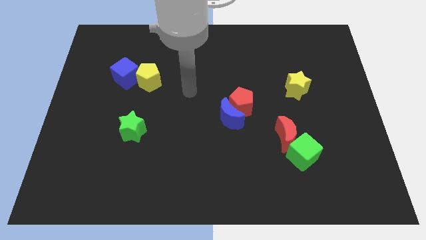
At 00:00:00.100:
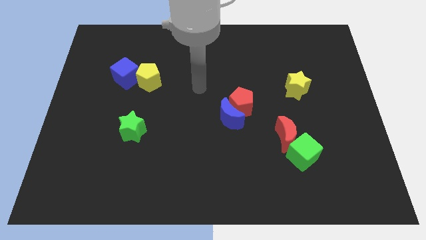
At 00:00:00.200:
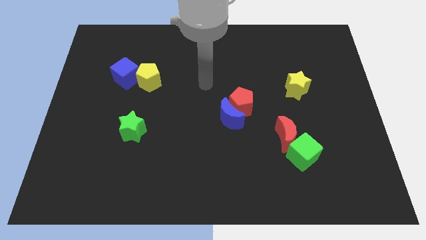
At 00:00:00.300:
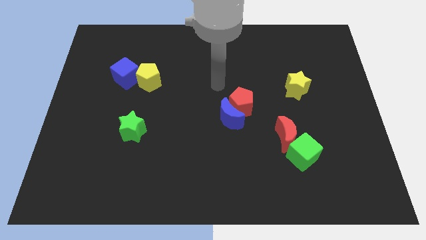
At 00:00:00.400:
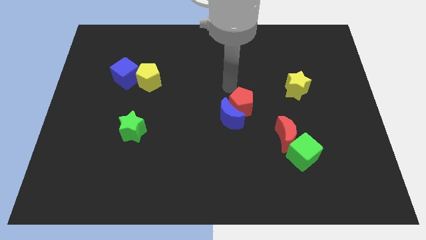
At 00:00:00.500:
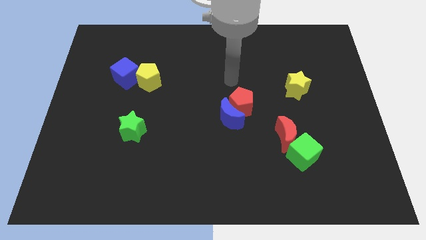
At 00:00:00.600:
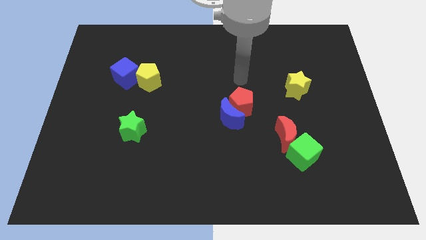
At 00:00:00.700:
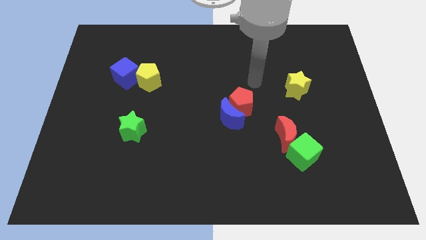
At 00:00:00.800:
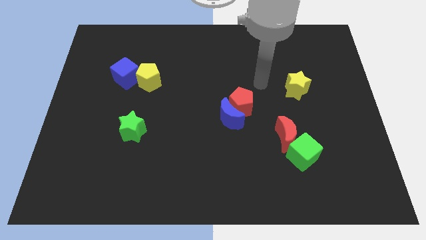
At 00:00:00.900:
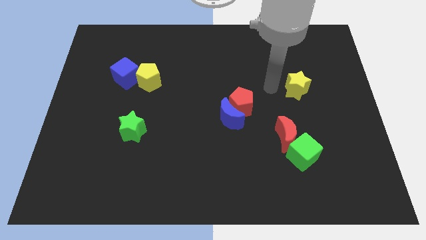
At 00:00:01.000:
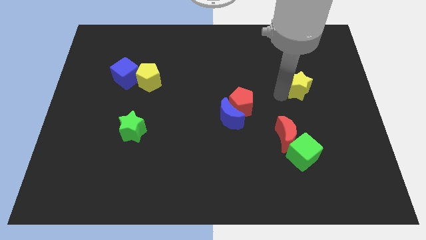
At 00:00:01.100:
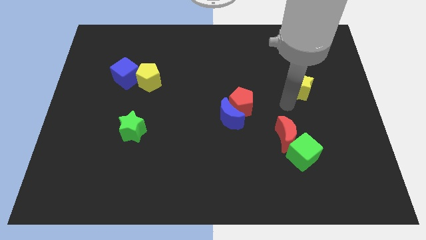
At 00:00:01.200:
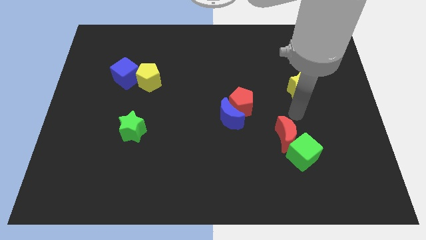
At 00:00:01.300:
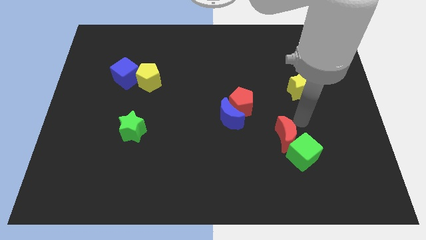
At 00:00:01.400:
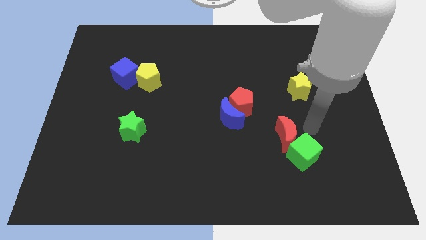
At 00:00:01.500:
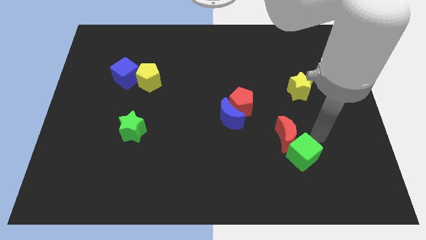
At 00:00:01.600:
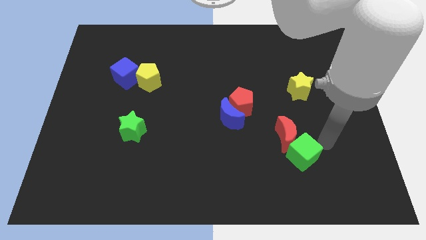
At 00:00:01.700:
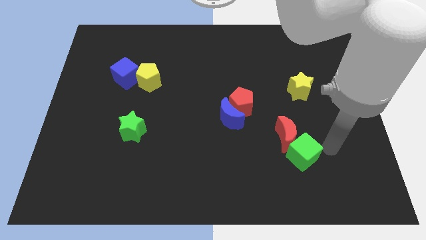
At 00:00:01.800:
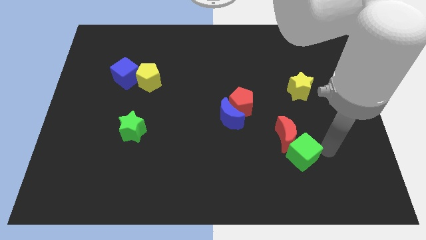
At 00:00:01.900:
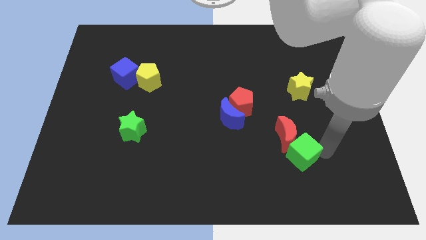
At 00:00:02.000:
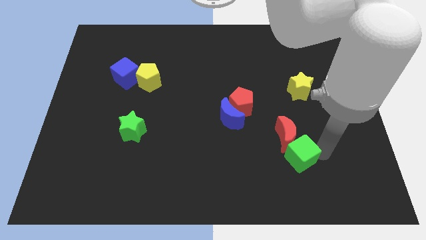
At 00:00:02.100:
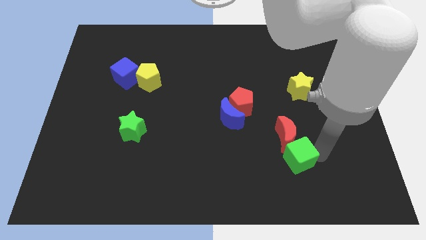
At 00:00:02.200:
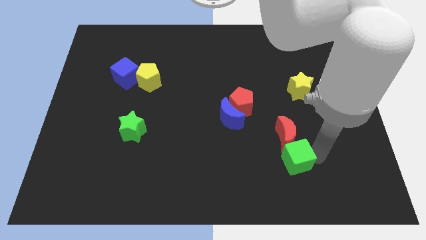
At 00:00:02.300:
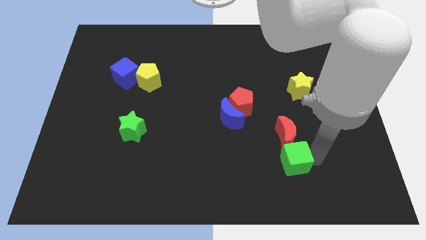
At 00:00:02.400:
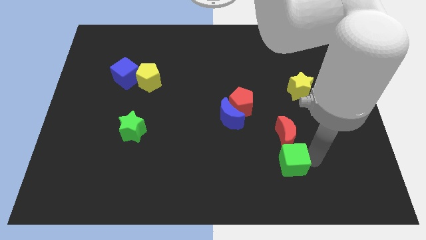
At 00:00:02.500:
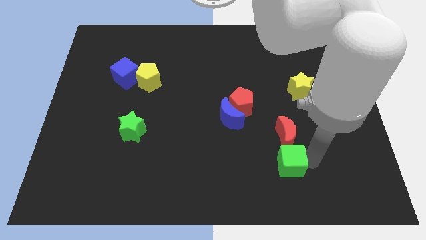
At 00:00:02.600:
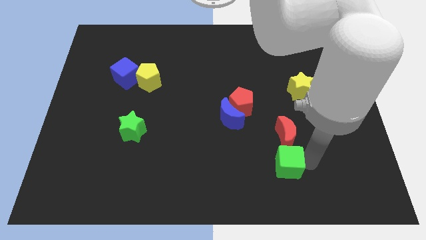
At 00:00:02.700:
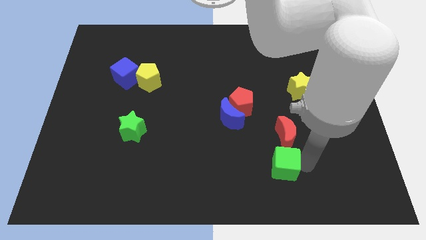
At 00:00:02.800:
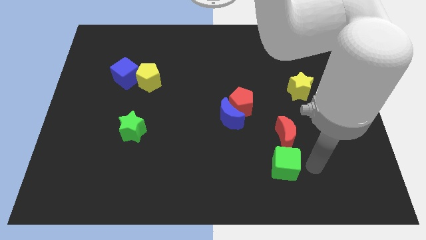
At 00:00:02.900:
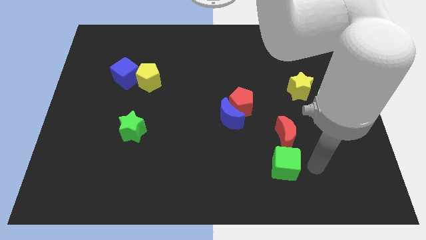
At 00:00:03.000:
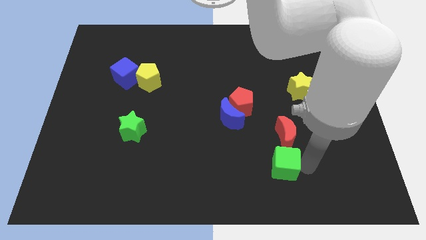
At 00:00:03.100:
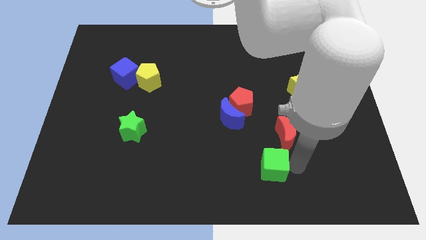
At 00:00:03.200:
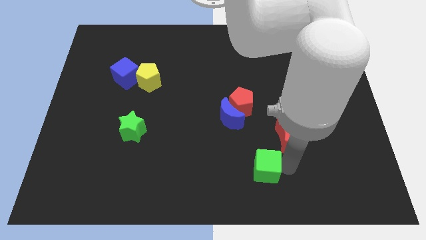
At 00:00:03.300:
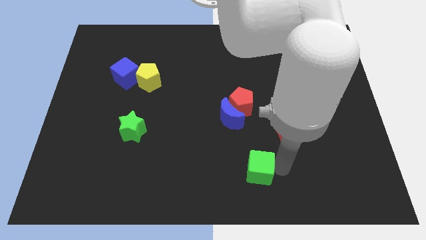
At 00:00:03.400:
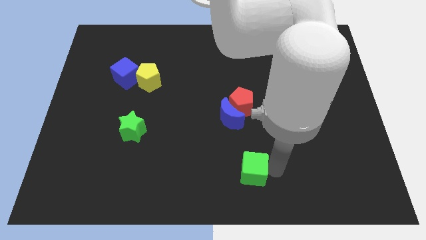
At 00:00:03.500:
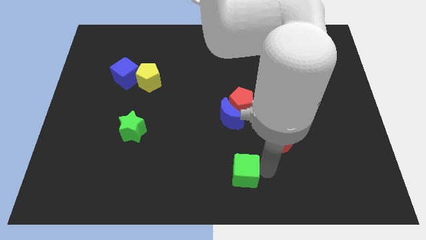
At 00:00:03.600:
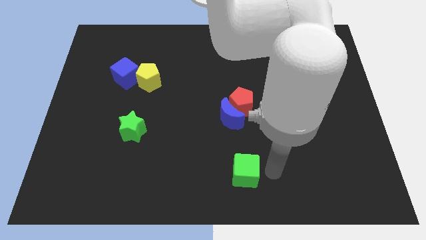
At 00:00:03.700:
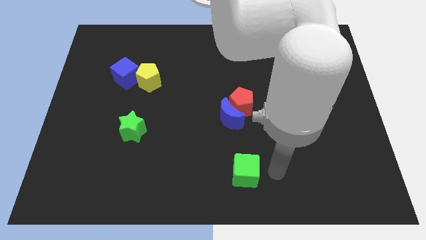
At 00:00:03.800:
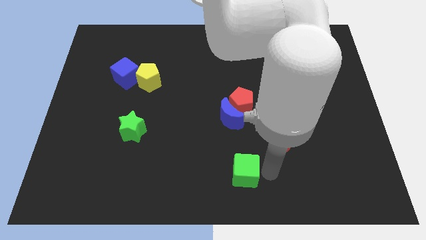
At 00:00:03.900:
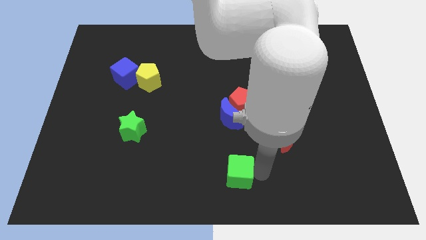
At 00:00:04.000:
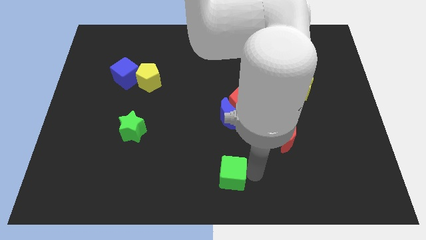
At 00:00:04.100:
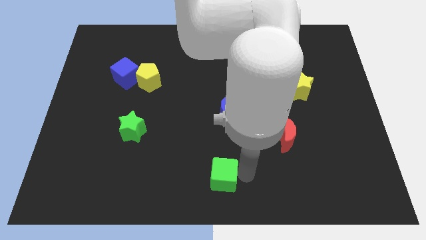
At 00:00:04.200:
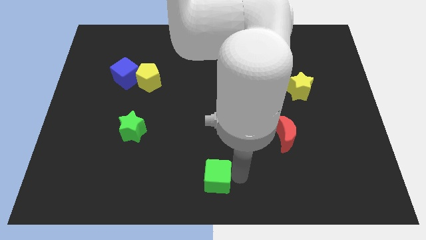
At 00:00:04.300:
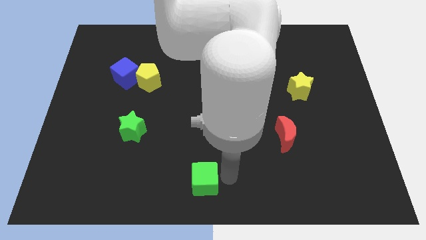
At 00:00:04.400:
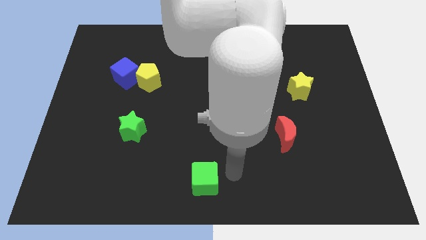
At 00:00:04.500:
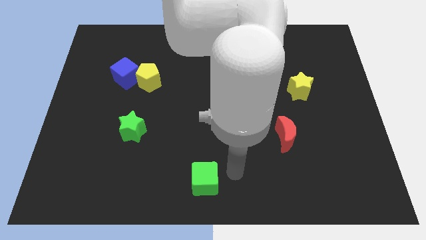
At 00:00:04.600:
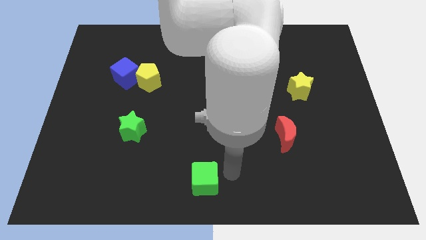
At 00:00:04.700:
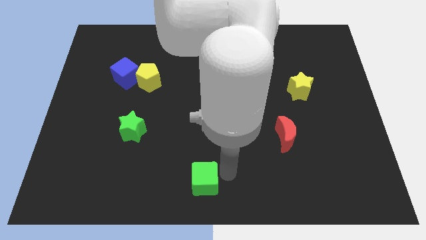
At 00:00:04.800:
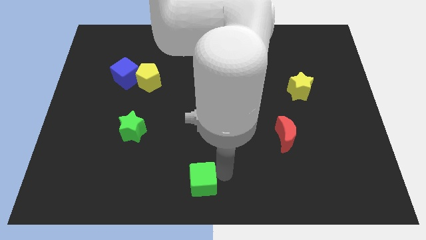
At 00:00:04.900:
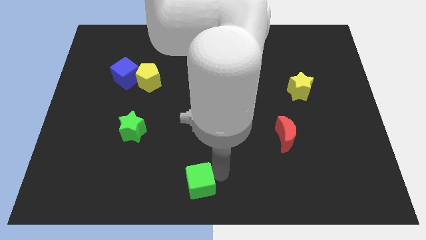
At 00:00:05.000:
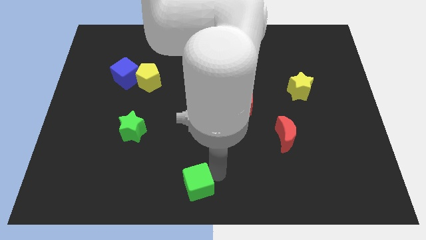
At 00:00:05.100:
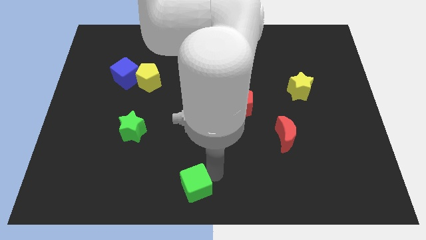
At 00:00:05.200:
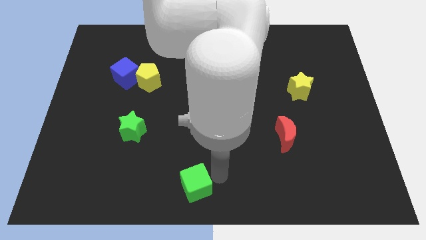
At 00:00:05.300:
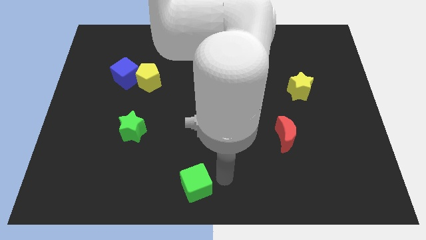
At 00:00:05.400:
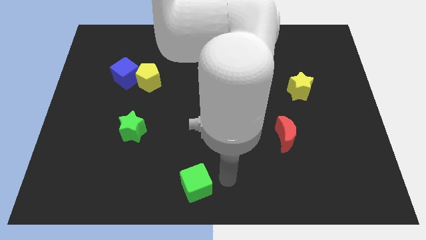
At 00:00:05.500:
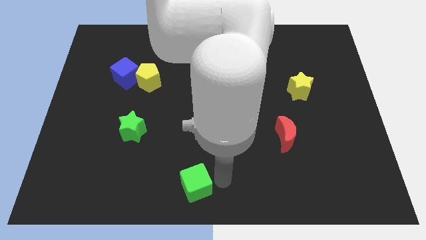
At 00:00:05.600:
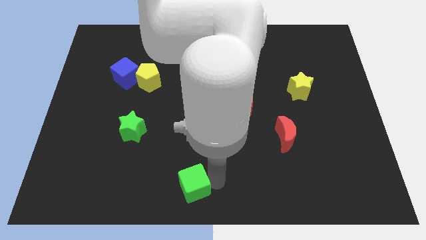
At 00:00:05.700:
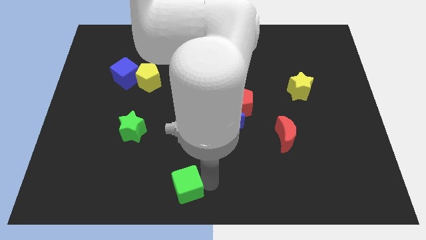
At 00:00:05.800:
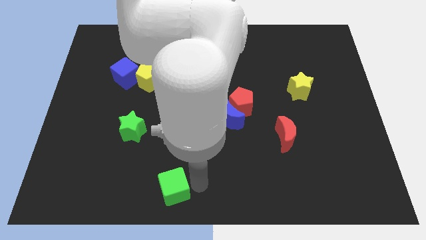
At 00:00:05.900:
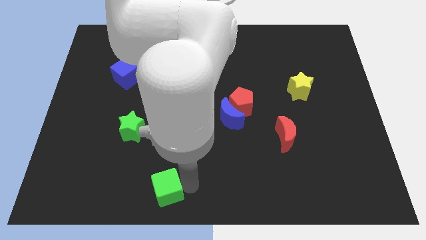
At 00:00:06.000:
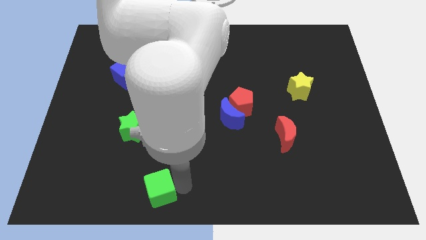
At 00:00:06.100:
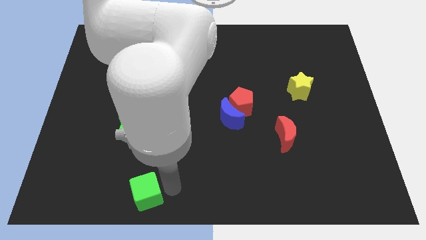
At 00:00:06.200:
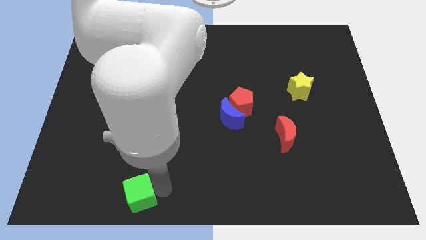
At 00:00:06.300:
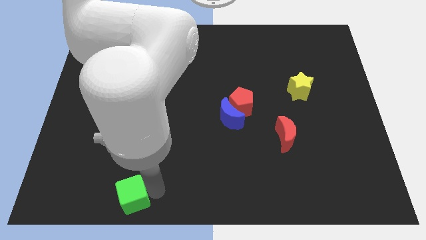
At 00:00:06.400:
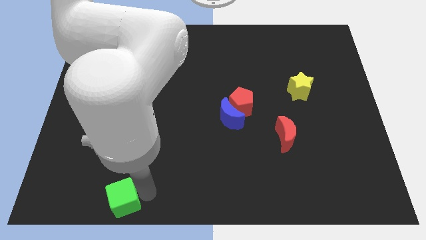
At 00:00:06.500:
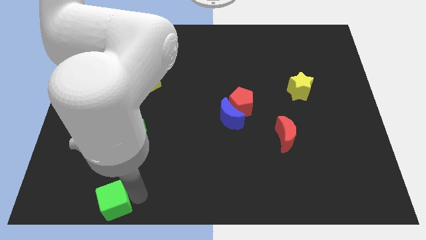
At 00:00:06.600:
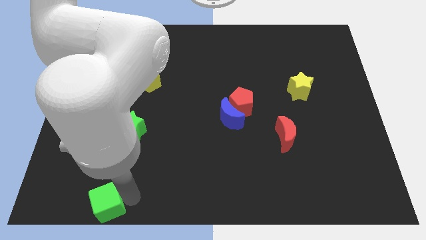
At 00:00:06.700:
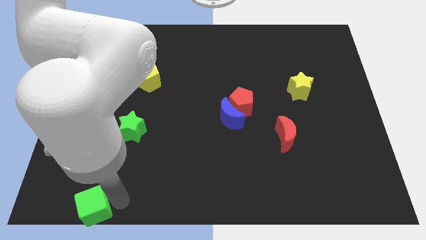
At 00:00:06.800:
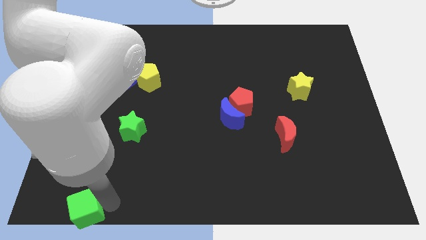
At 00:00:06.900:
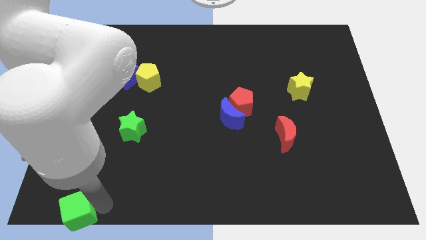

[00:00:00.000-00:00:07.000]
push the green cube to the bottom left corner
